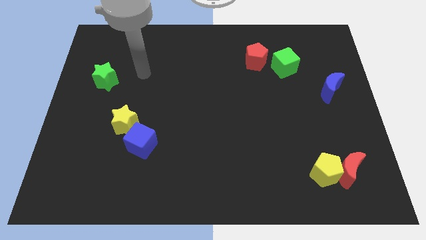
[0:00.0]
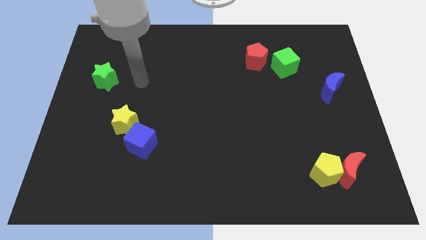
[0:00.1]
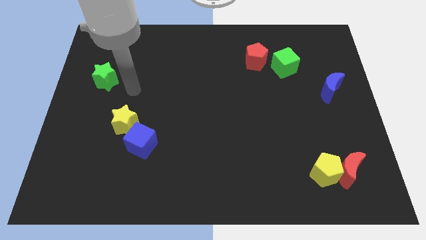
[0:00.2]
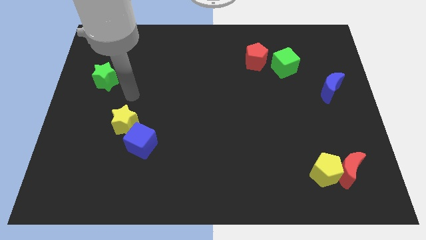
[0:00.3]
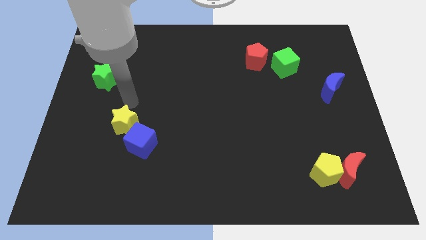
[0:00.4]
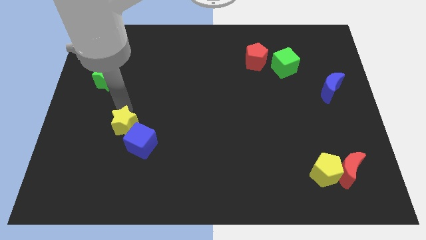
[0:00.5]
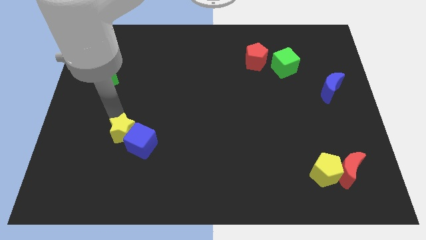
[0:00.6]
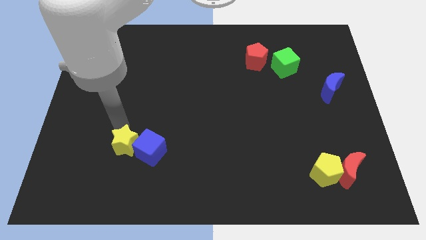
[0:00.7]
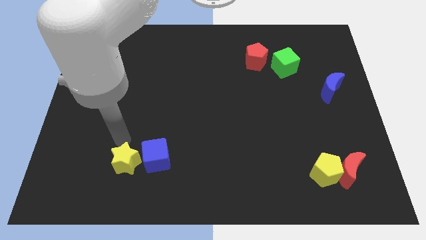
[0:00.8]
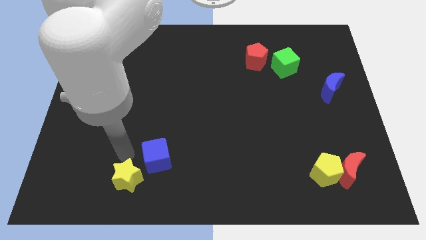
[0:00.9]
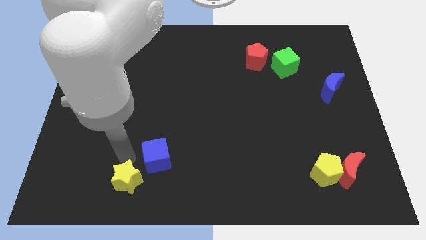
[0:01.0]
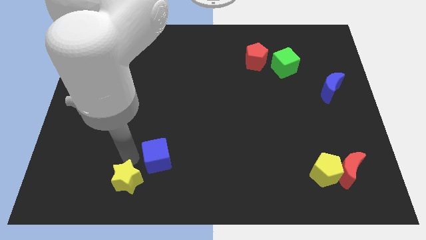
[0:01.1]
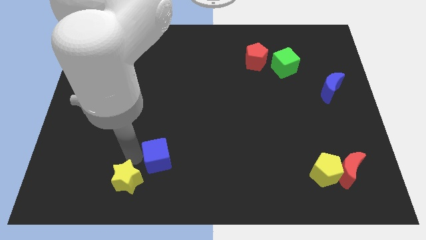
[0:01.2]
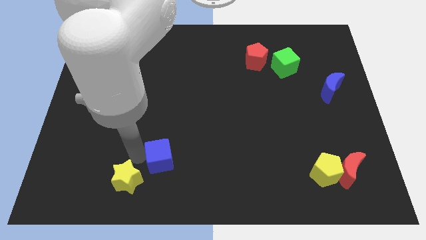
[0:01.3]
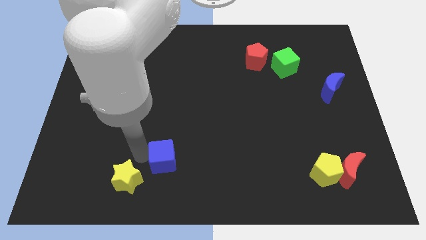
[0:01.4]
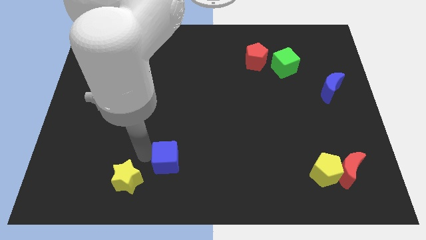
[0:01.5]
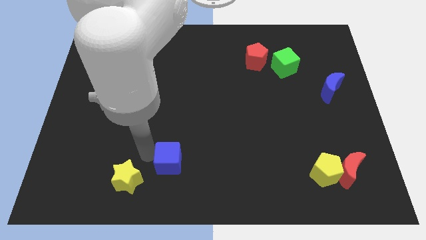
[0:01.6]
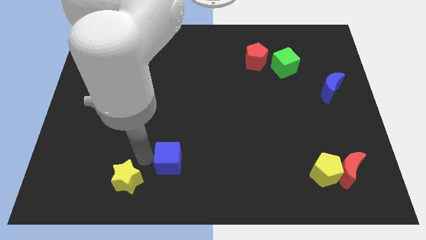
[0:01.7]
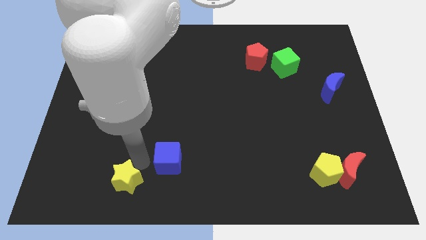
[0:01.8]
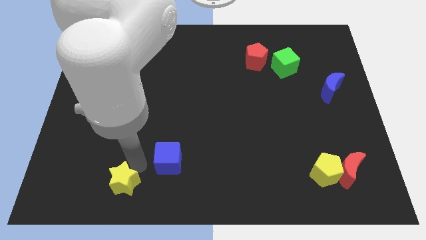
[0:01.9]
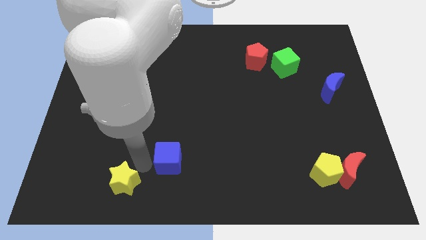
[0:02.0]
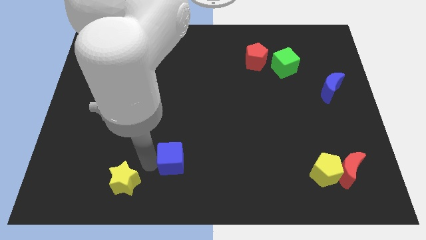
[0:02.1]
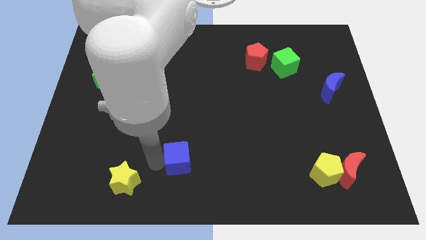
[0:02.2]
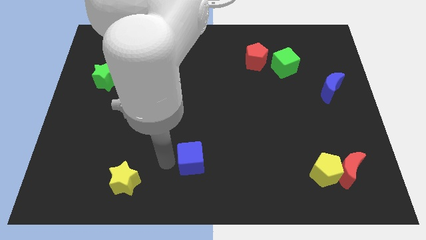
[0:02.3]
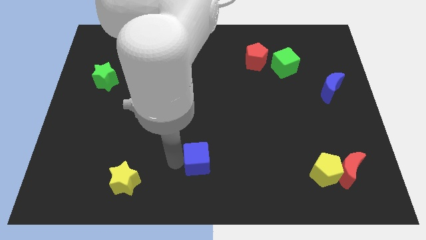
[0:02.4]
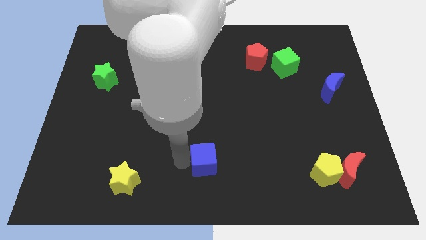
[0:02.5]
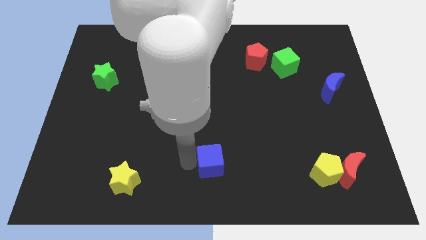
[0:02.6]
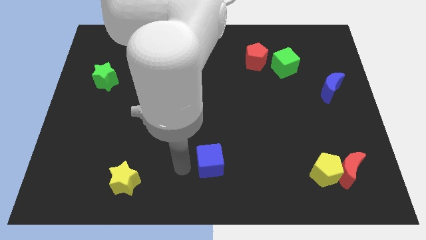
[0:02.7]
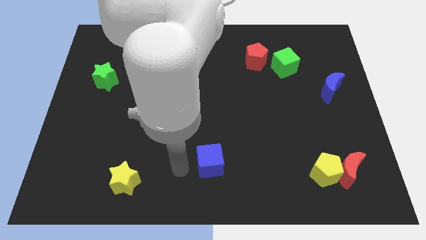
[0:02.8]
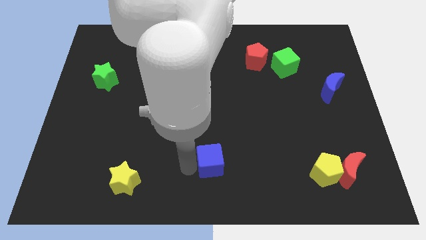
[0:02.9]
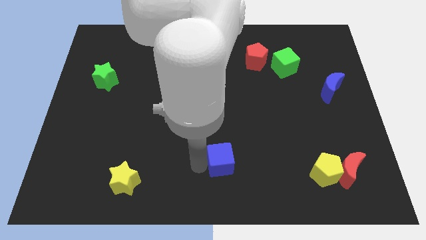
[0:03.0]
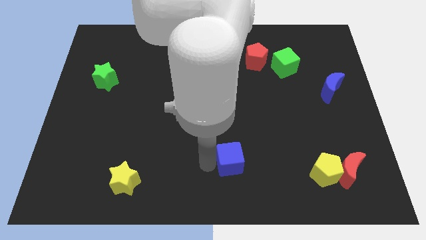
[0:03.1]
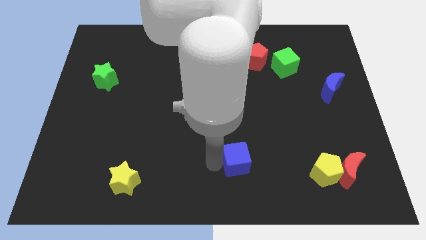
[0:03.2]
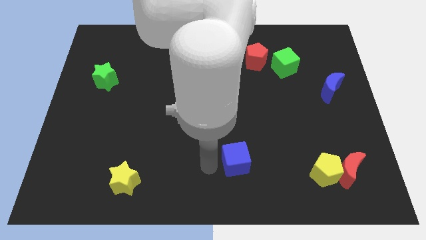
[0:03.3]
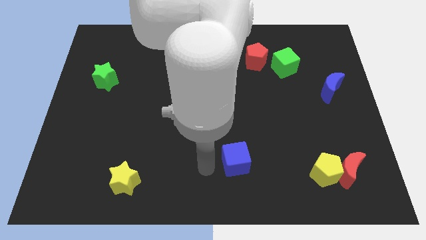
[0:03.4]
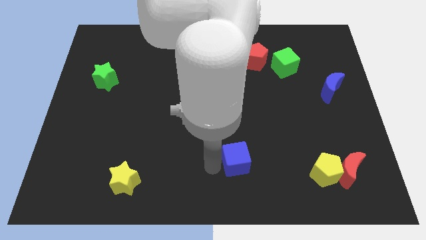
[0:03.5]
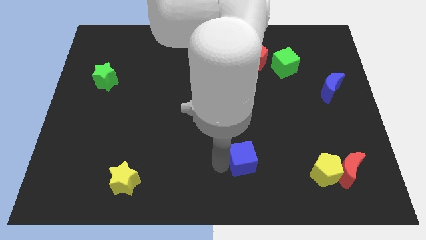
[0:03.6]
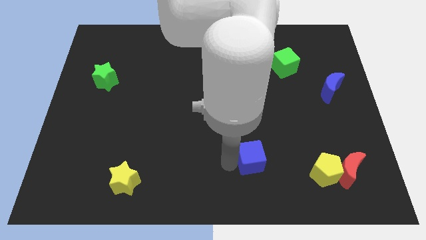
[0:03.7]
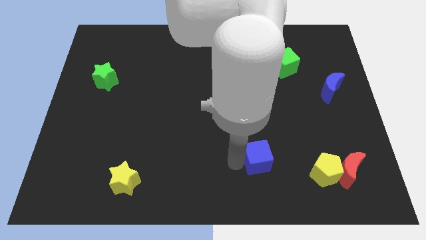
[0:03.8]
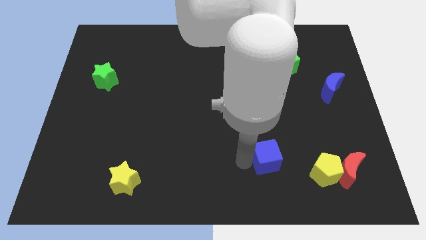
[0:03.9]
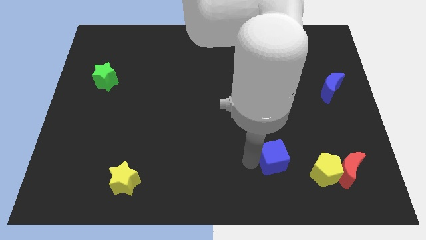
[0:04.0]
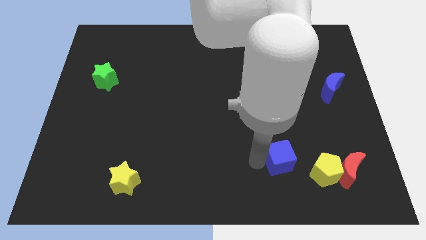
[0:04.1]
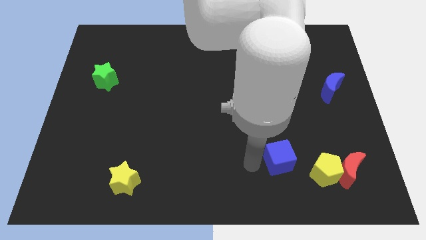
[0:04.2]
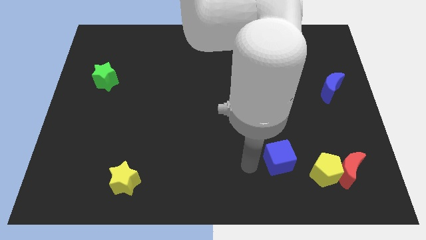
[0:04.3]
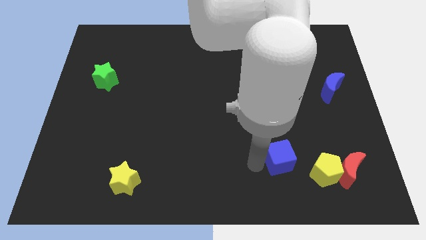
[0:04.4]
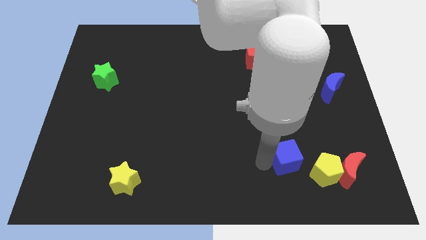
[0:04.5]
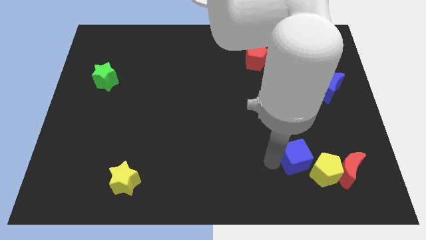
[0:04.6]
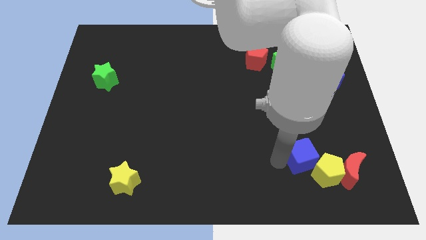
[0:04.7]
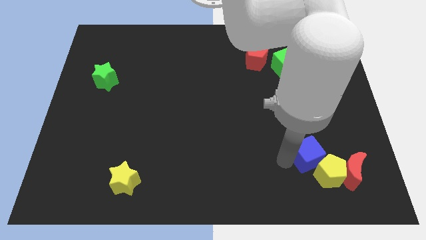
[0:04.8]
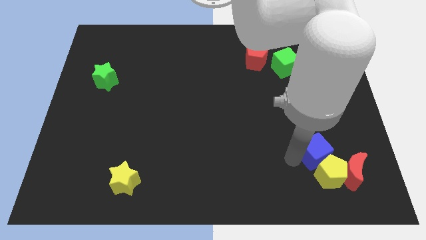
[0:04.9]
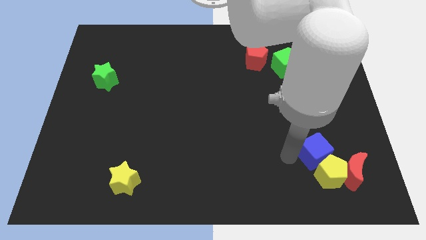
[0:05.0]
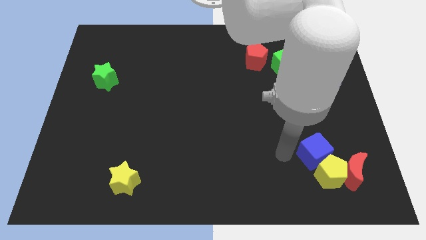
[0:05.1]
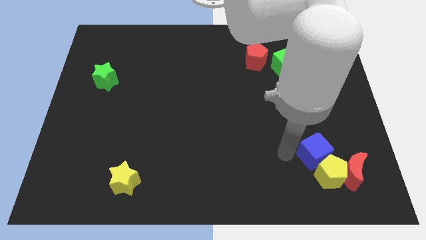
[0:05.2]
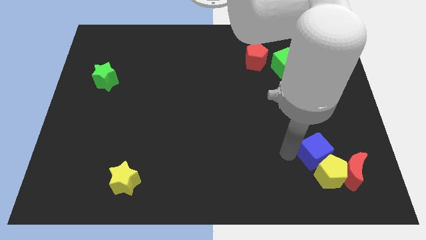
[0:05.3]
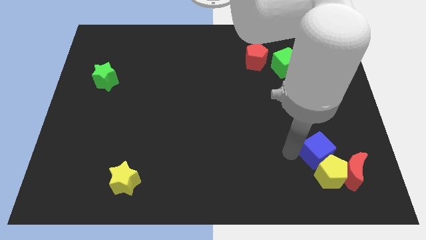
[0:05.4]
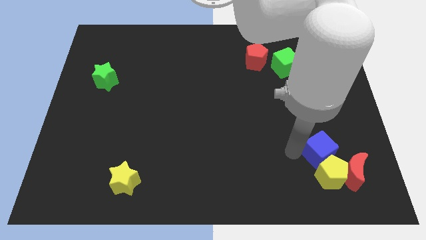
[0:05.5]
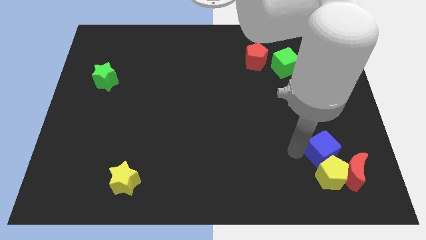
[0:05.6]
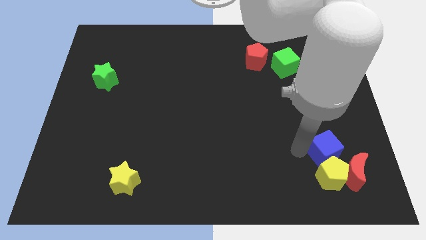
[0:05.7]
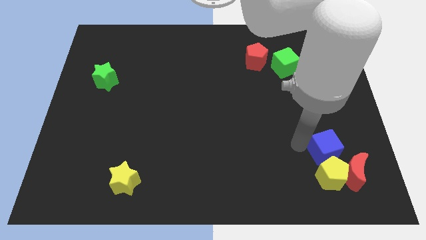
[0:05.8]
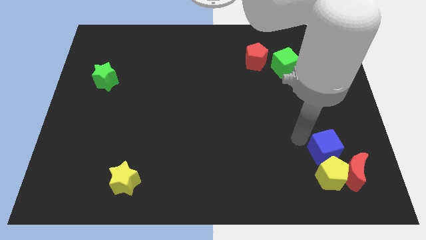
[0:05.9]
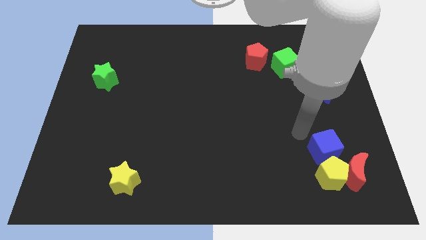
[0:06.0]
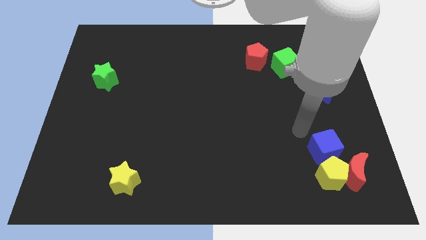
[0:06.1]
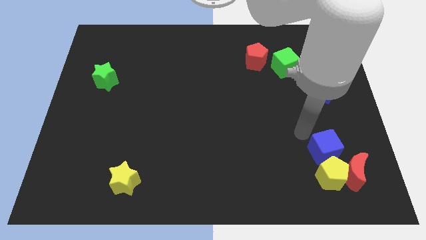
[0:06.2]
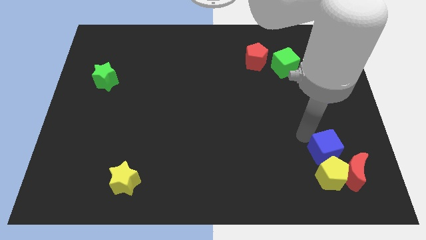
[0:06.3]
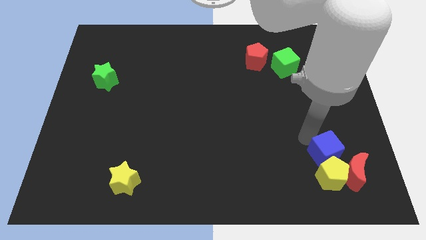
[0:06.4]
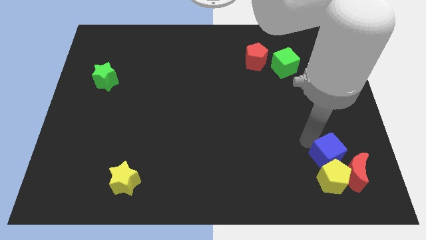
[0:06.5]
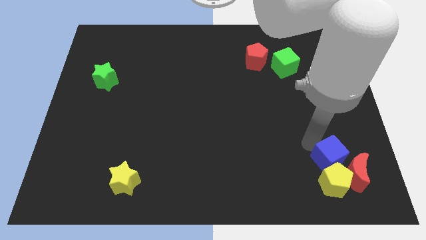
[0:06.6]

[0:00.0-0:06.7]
move the blue cube towards the red moon
